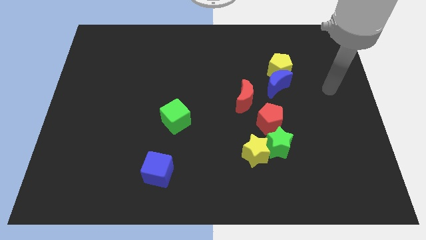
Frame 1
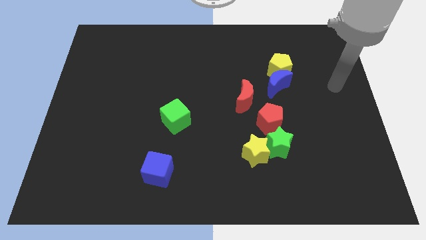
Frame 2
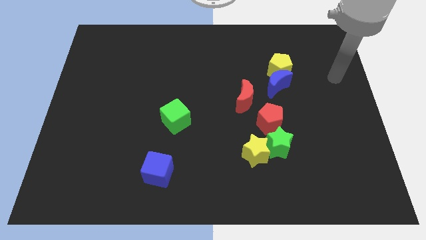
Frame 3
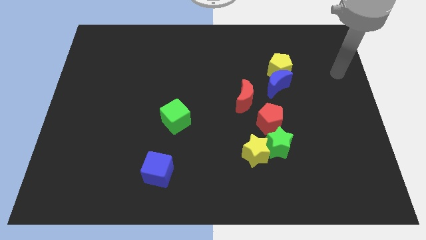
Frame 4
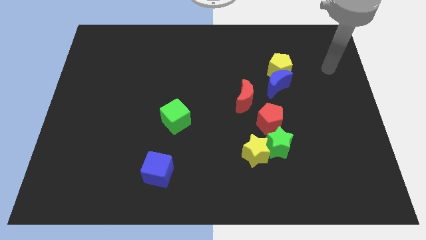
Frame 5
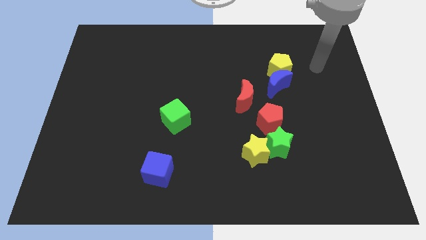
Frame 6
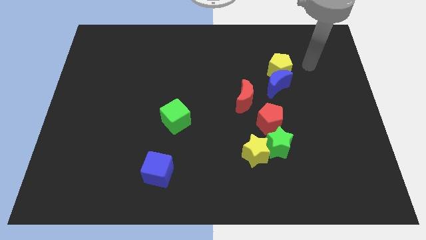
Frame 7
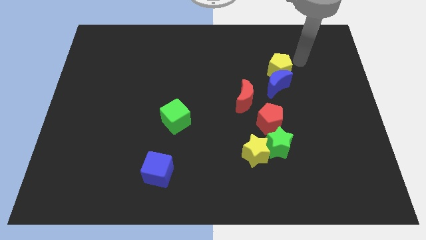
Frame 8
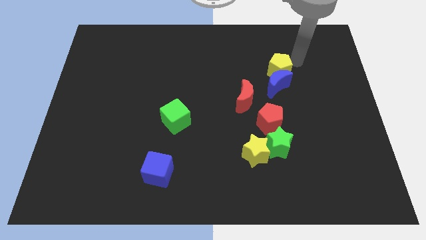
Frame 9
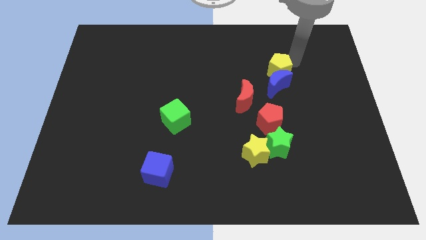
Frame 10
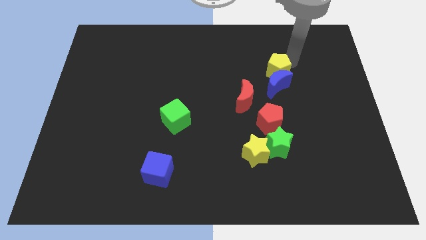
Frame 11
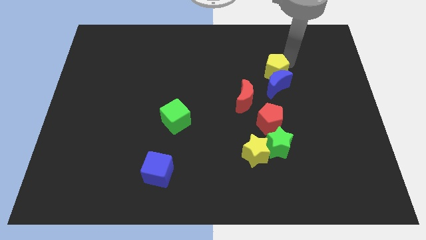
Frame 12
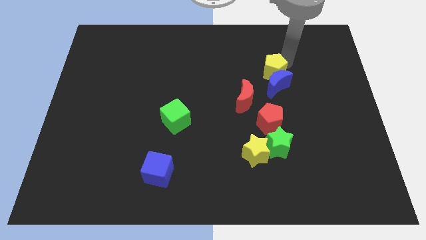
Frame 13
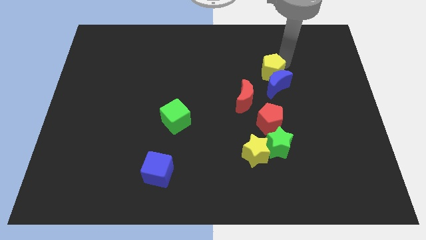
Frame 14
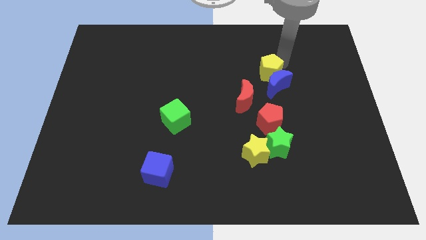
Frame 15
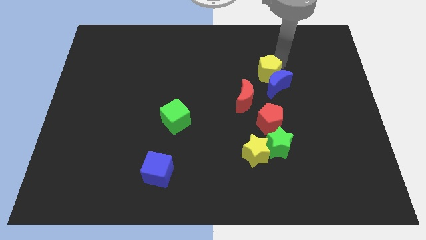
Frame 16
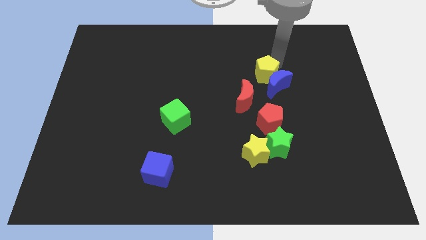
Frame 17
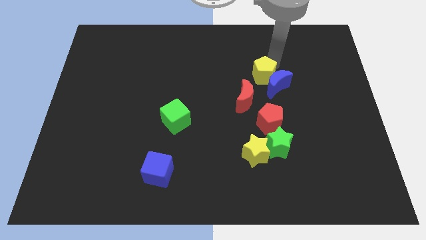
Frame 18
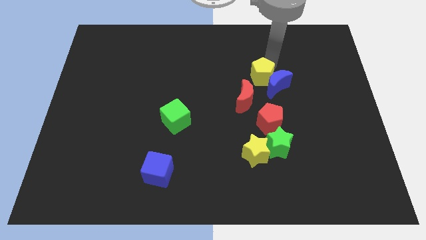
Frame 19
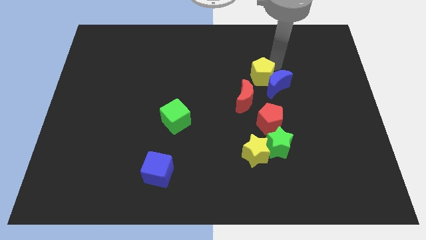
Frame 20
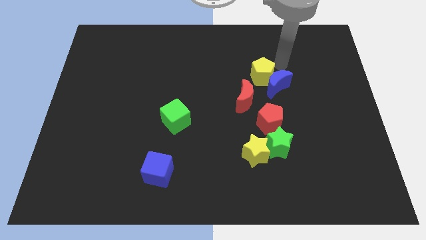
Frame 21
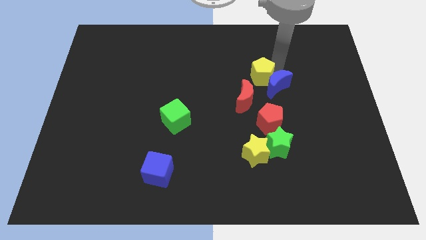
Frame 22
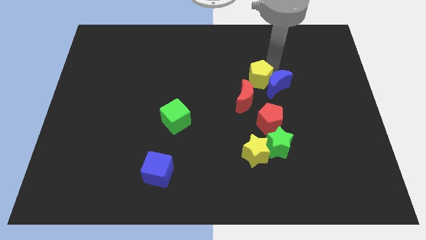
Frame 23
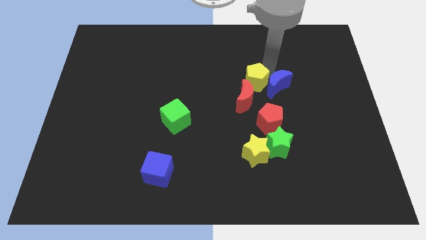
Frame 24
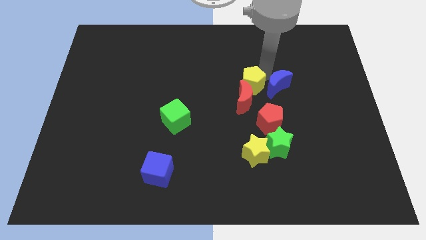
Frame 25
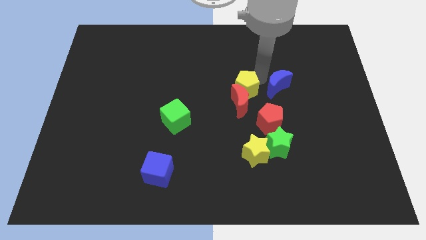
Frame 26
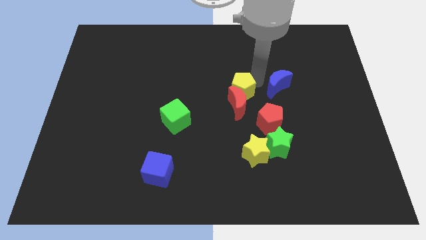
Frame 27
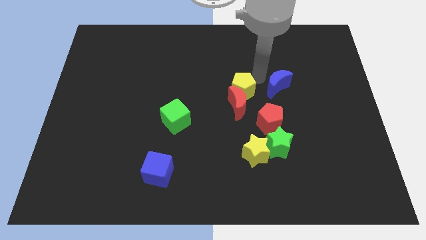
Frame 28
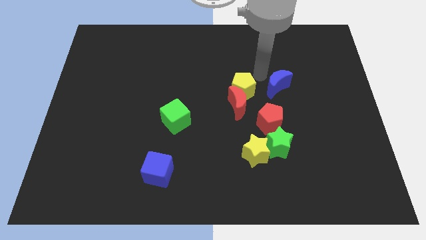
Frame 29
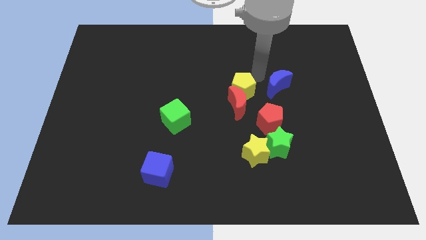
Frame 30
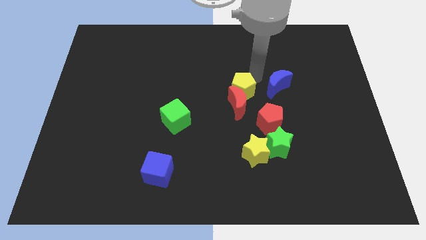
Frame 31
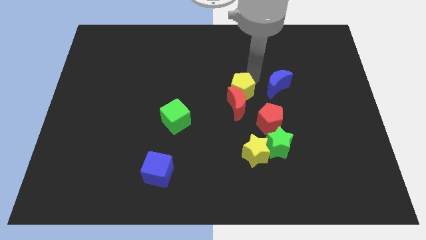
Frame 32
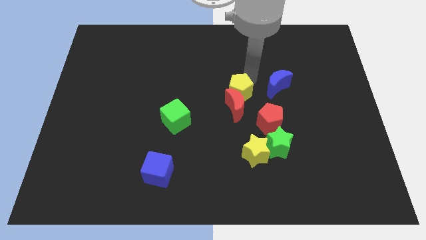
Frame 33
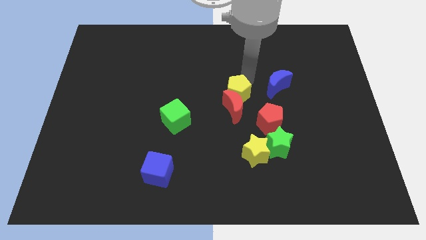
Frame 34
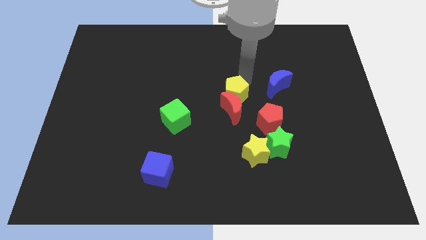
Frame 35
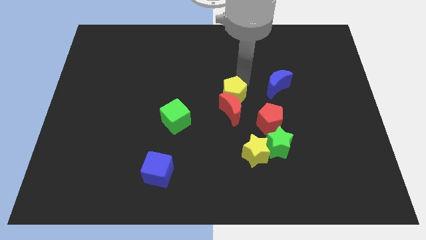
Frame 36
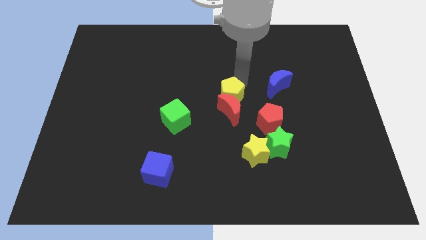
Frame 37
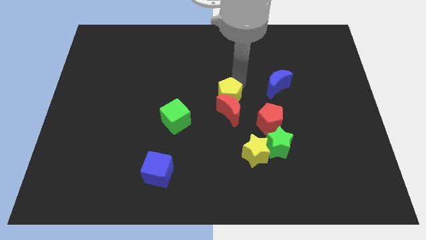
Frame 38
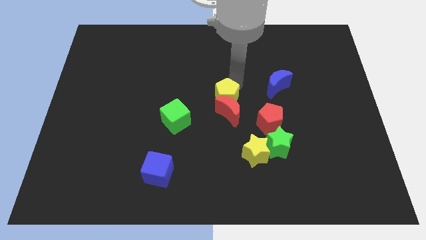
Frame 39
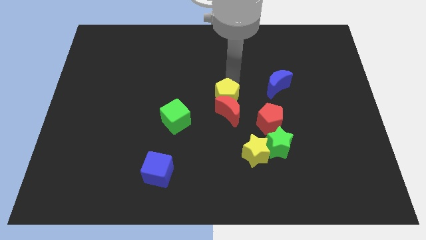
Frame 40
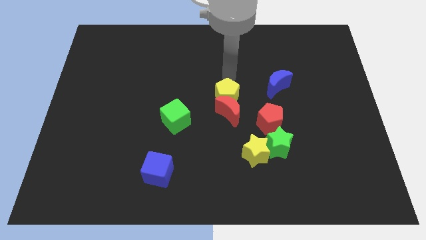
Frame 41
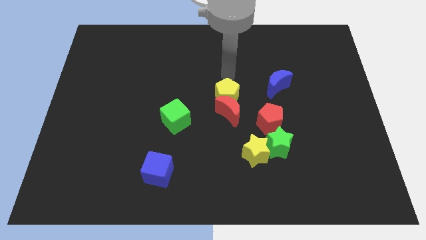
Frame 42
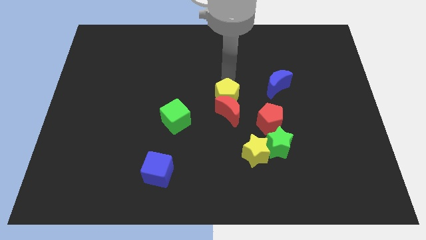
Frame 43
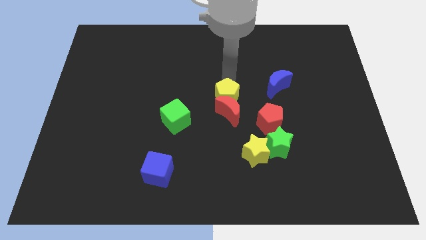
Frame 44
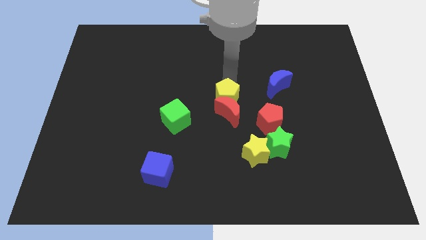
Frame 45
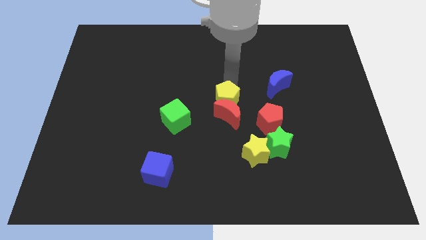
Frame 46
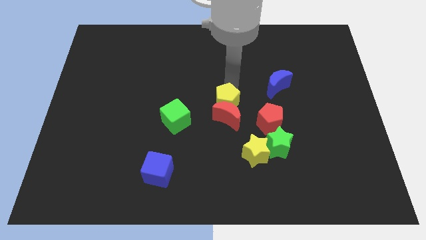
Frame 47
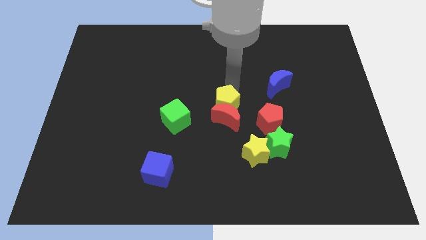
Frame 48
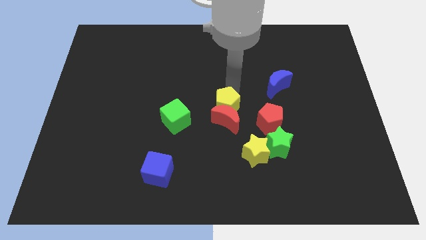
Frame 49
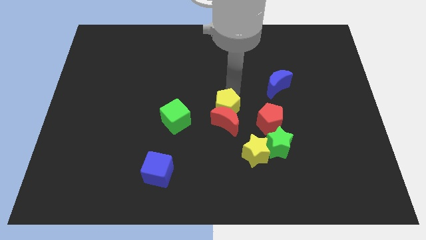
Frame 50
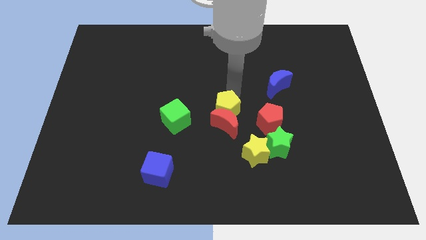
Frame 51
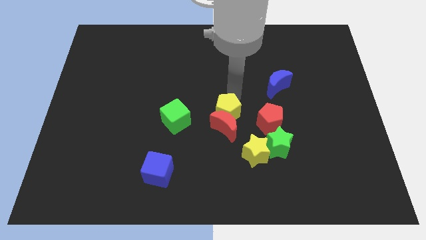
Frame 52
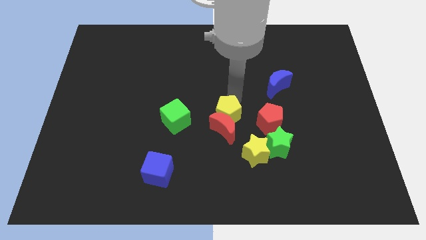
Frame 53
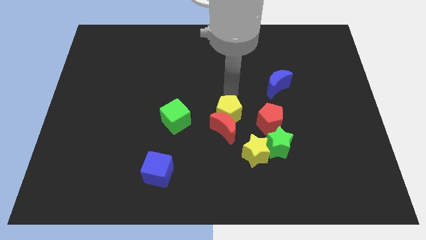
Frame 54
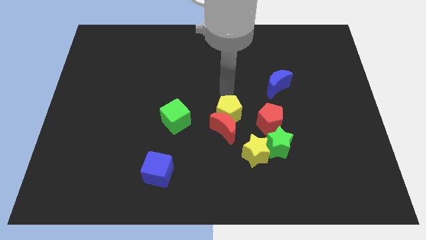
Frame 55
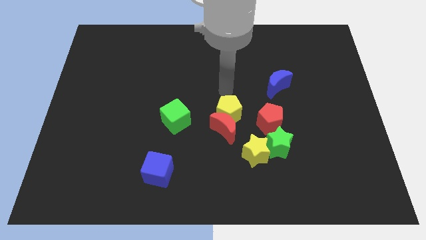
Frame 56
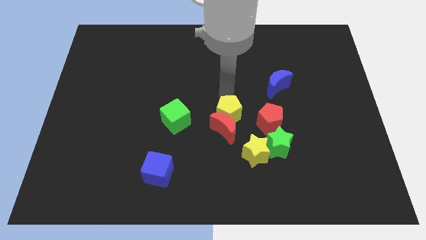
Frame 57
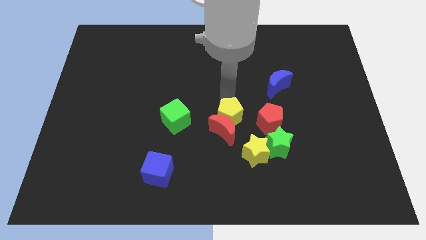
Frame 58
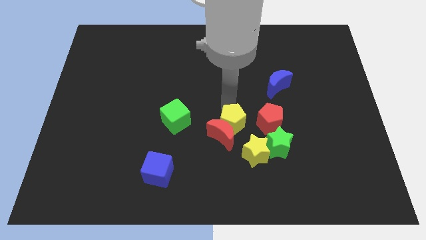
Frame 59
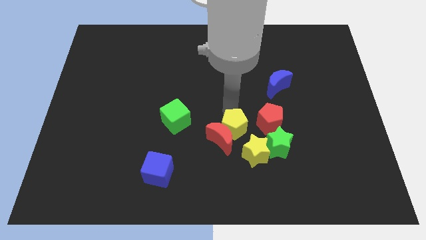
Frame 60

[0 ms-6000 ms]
push the yellow pentagon to the bottom left of the red pentagon

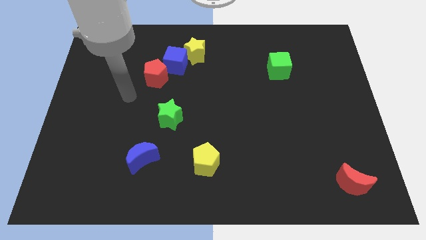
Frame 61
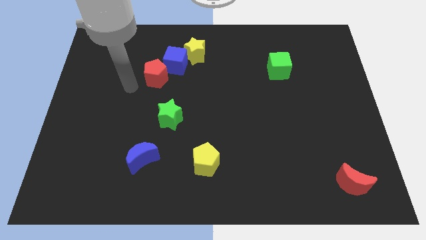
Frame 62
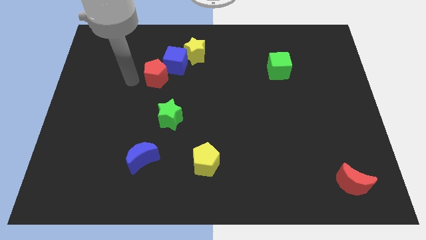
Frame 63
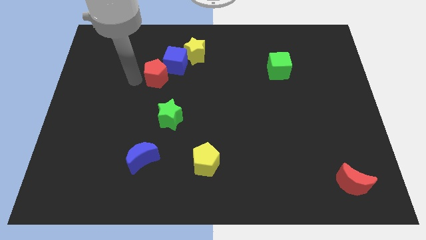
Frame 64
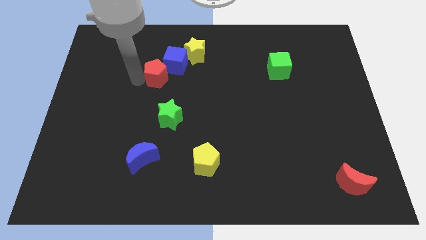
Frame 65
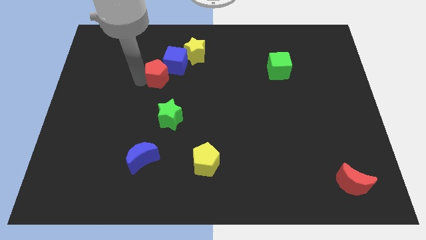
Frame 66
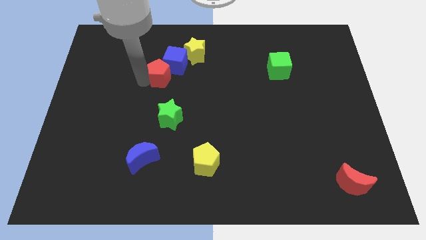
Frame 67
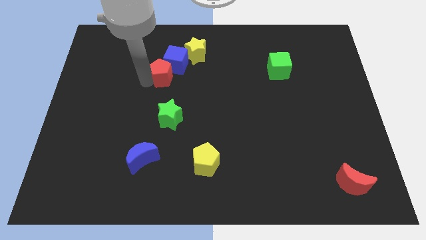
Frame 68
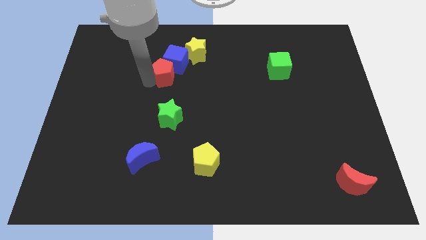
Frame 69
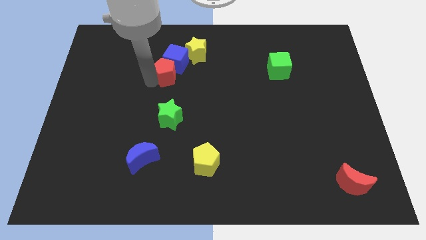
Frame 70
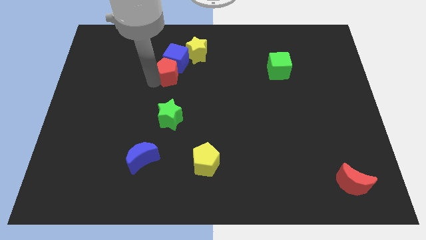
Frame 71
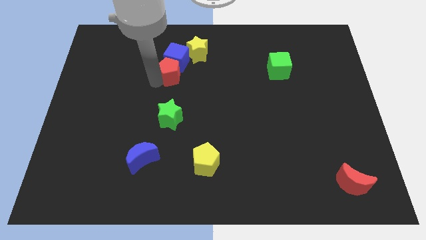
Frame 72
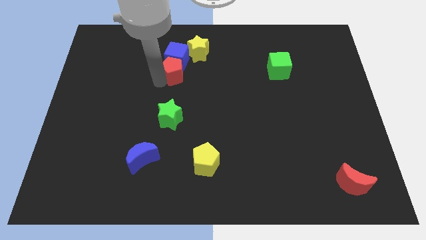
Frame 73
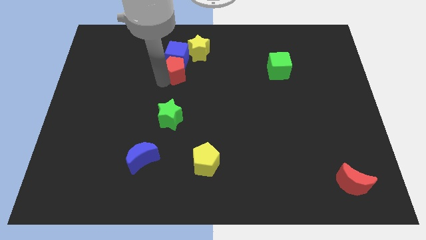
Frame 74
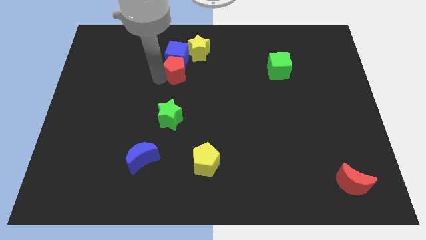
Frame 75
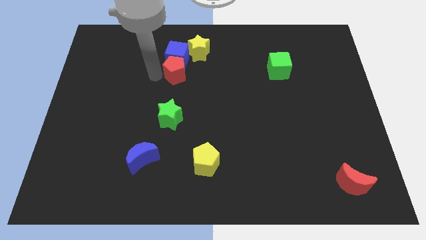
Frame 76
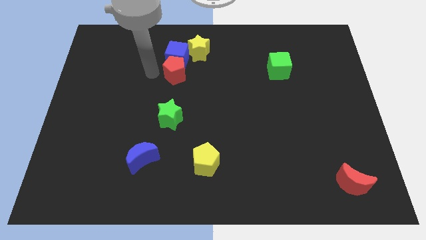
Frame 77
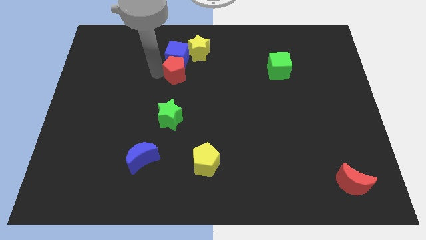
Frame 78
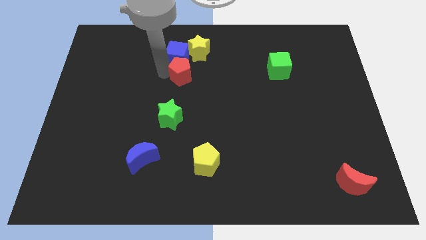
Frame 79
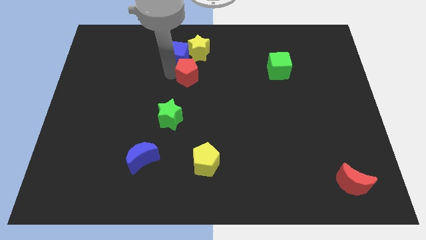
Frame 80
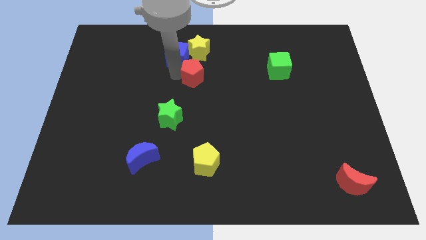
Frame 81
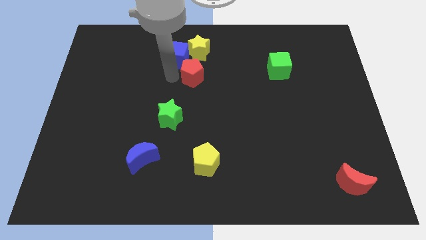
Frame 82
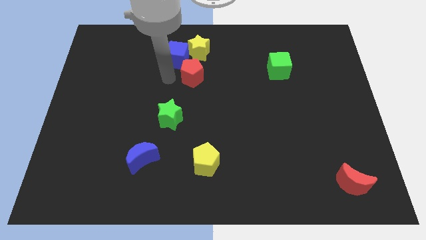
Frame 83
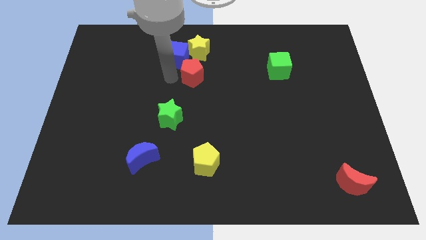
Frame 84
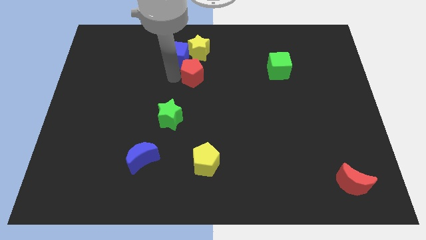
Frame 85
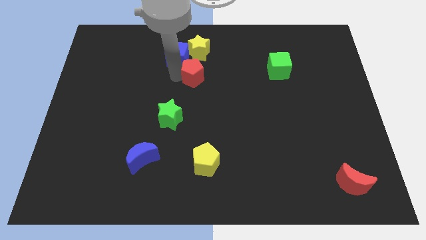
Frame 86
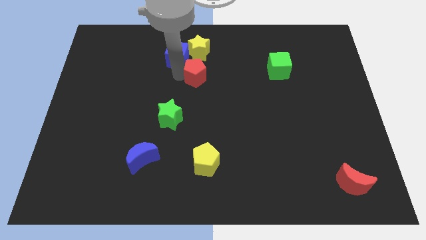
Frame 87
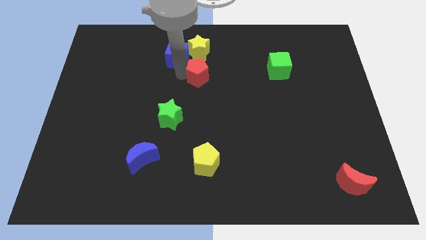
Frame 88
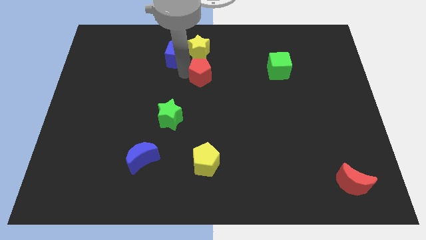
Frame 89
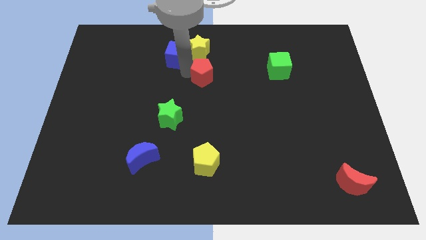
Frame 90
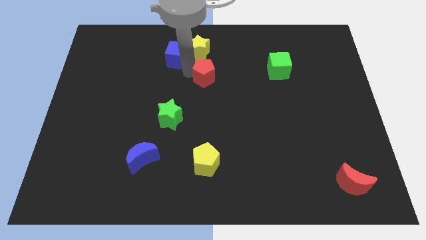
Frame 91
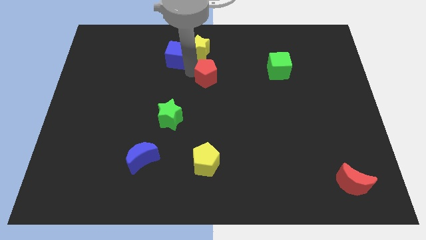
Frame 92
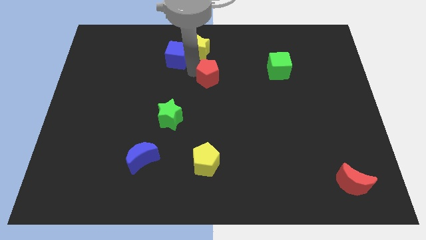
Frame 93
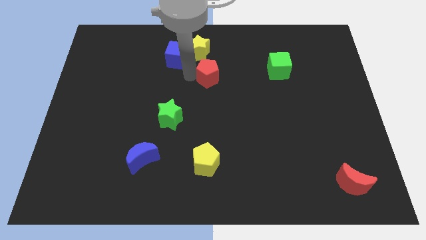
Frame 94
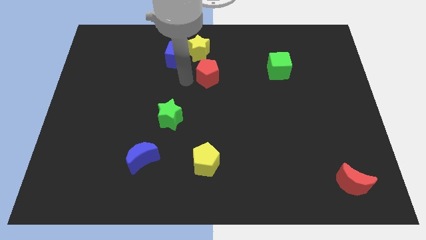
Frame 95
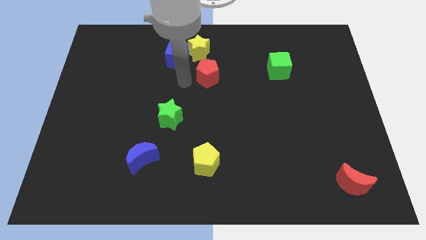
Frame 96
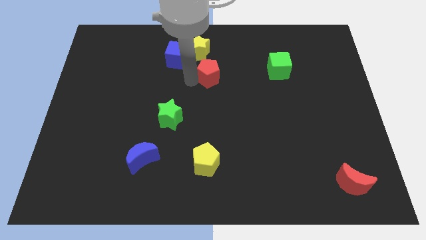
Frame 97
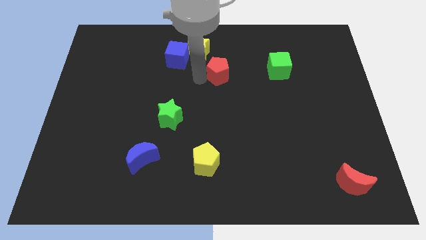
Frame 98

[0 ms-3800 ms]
put the red pentagon just left of the green cube
